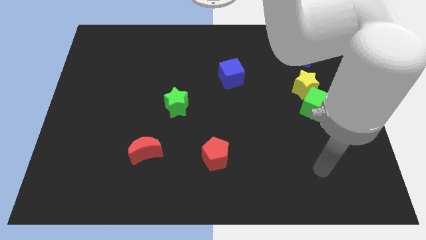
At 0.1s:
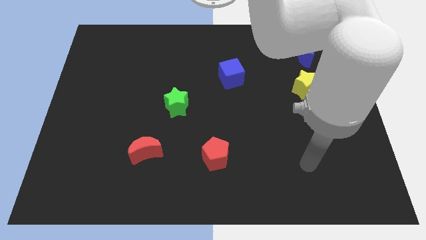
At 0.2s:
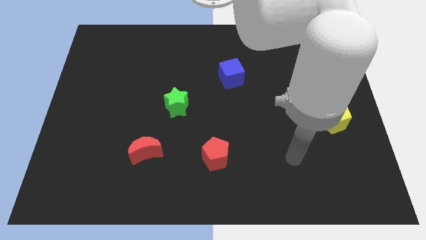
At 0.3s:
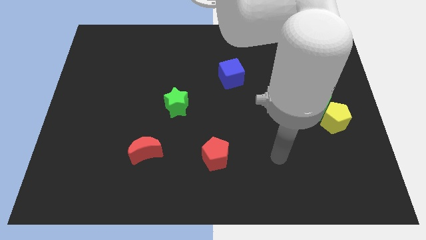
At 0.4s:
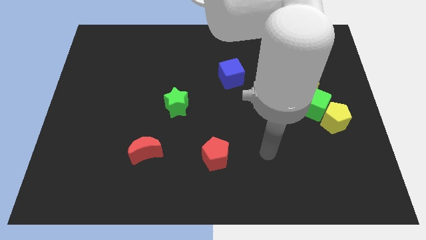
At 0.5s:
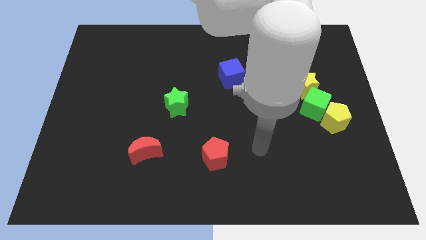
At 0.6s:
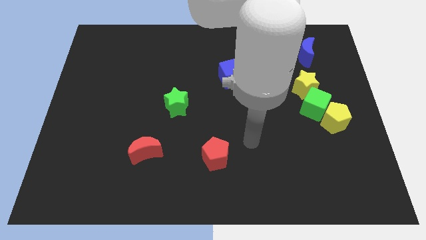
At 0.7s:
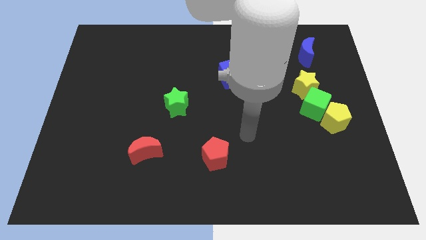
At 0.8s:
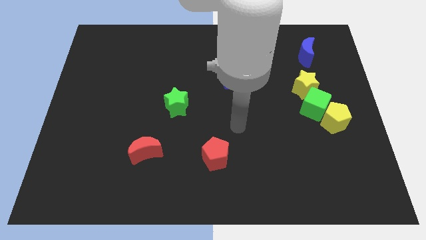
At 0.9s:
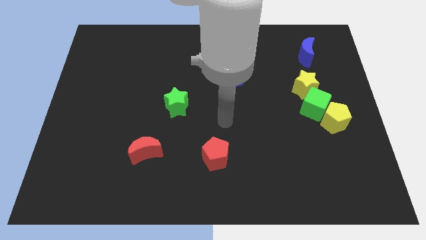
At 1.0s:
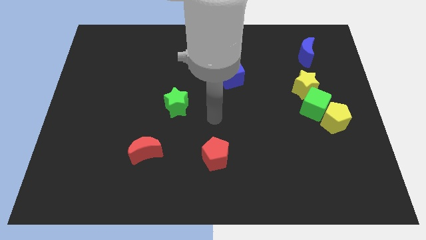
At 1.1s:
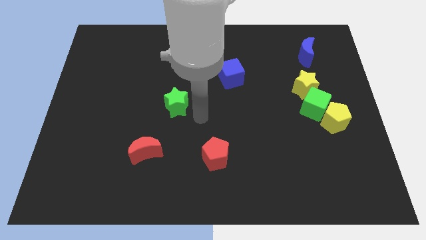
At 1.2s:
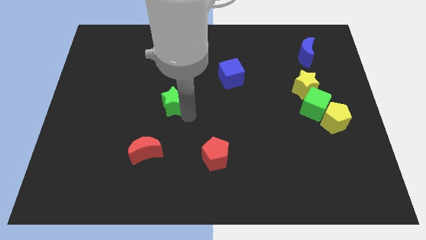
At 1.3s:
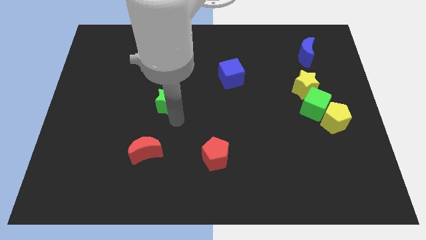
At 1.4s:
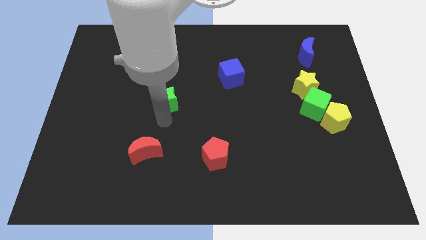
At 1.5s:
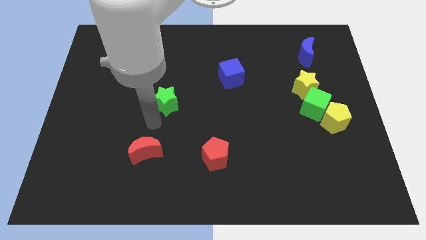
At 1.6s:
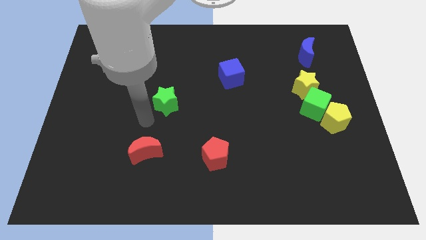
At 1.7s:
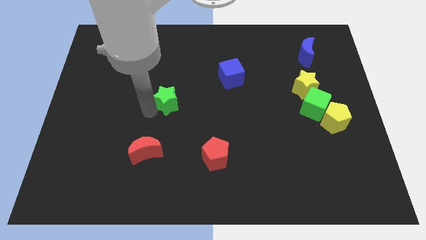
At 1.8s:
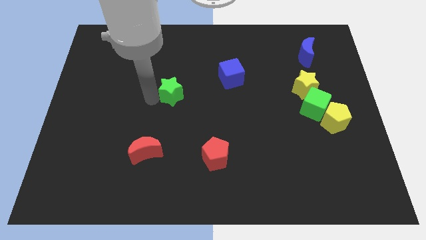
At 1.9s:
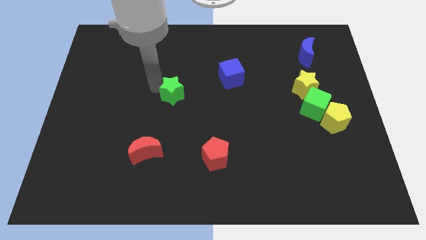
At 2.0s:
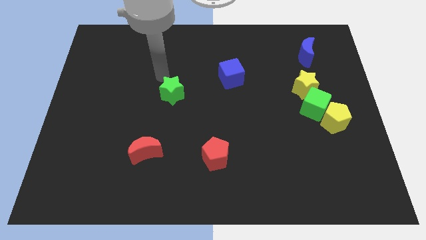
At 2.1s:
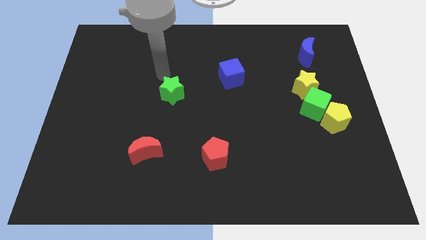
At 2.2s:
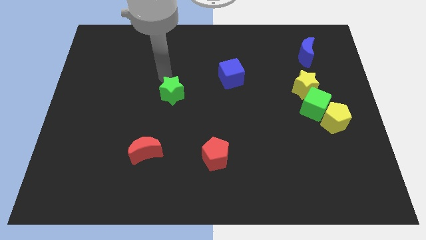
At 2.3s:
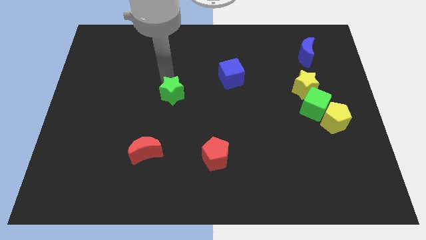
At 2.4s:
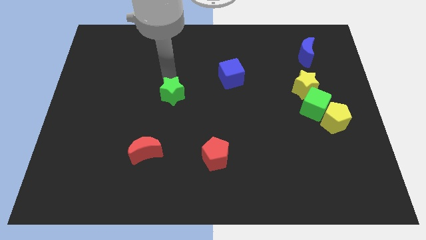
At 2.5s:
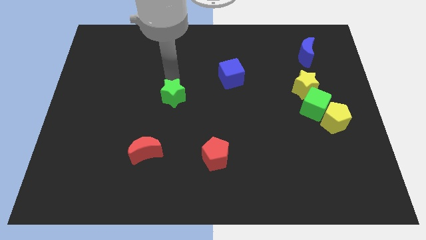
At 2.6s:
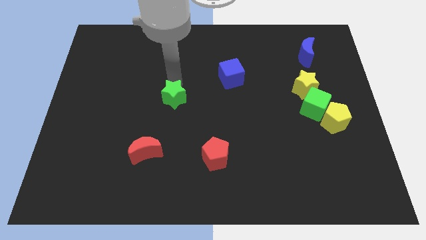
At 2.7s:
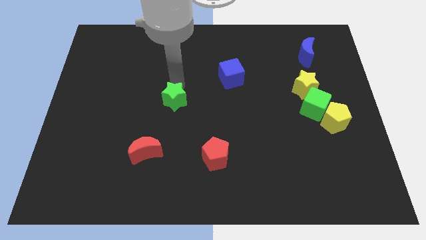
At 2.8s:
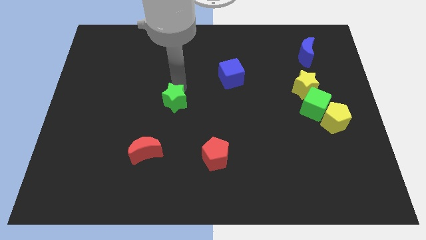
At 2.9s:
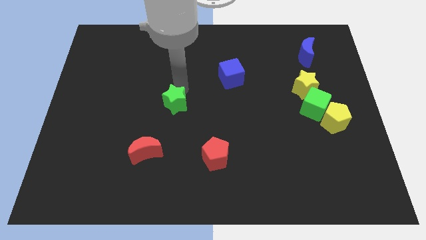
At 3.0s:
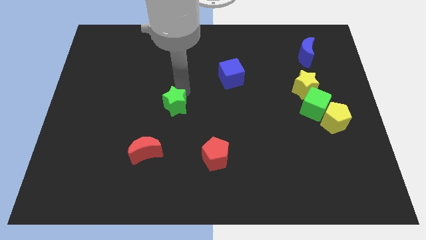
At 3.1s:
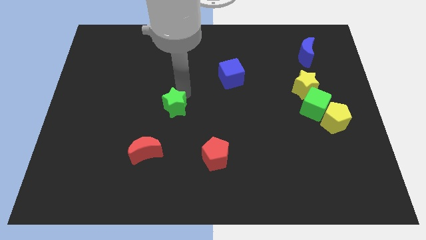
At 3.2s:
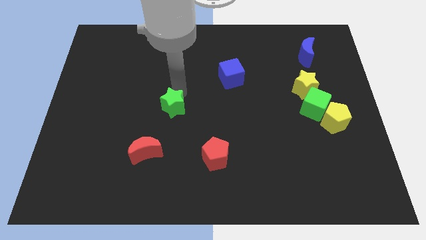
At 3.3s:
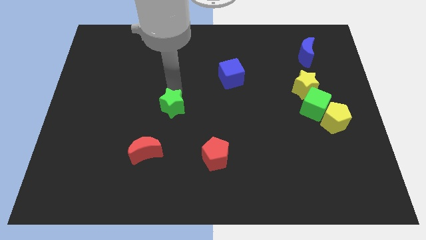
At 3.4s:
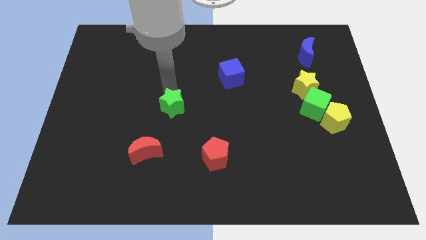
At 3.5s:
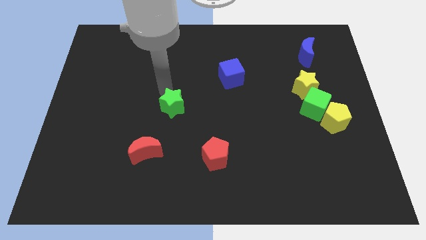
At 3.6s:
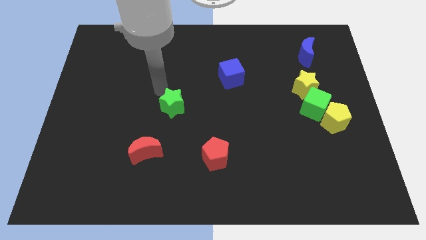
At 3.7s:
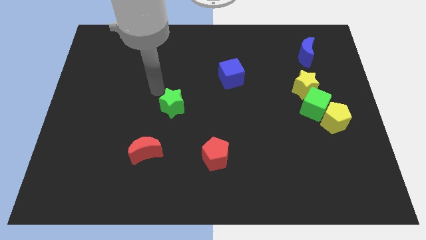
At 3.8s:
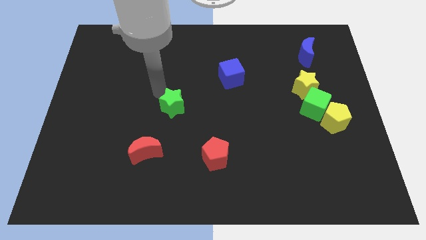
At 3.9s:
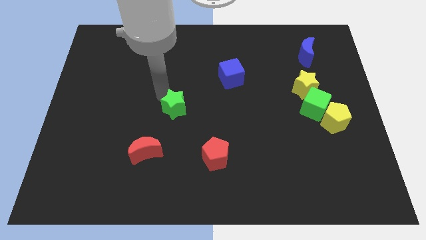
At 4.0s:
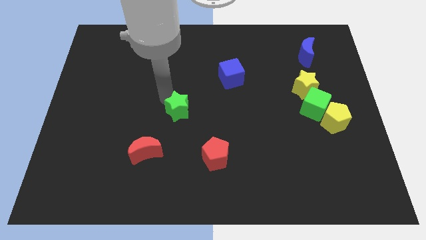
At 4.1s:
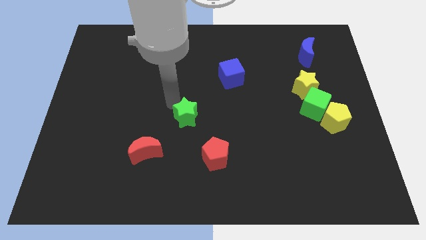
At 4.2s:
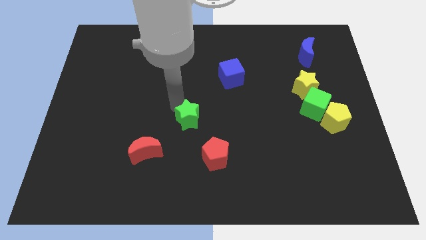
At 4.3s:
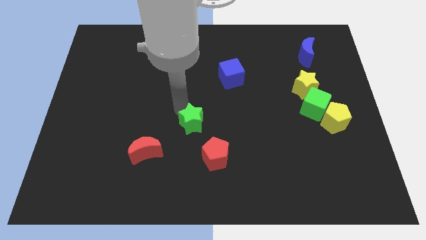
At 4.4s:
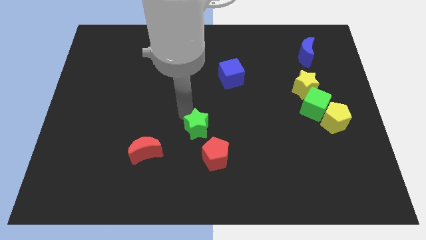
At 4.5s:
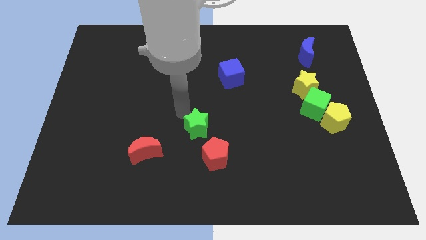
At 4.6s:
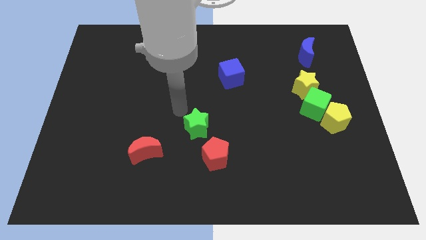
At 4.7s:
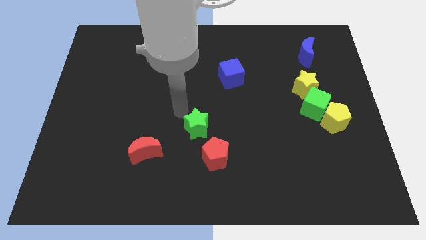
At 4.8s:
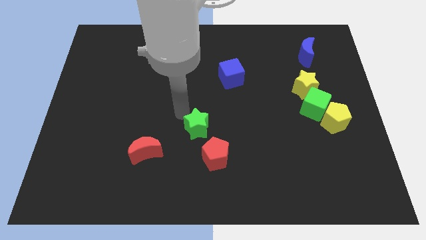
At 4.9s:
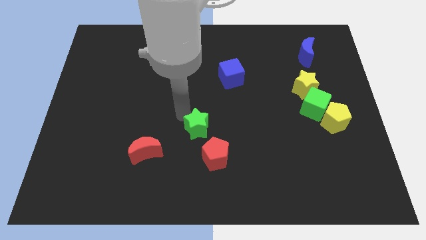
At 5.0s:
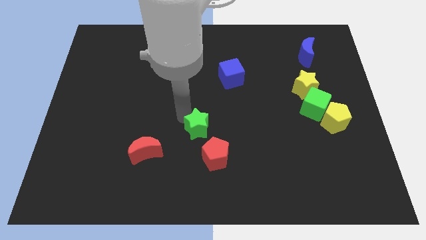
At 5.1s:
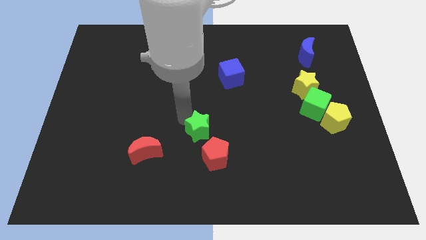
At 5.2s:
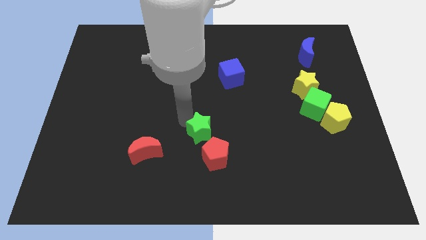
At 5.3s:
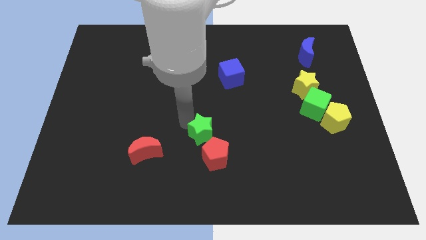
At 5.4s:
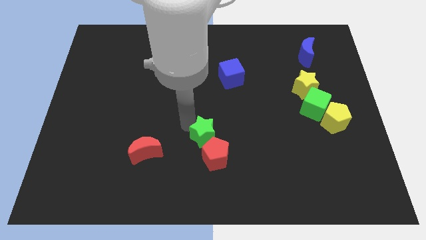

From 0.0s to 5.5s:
push the green star towards the red pentagon

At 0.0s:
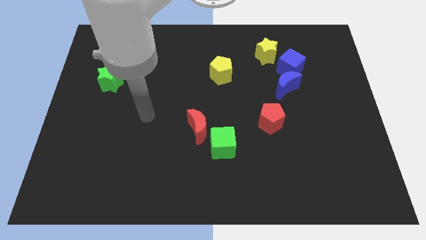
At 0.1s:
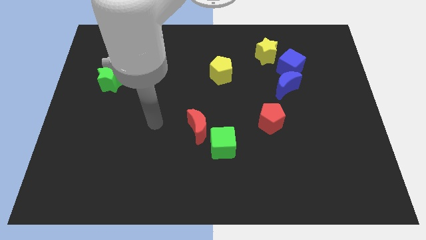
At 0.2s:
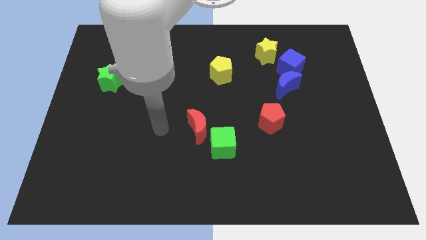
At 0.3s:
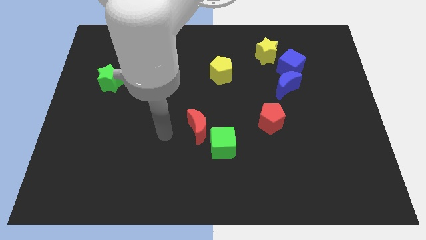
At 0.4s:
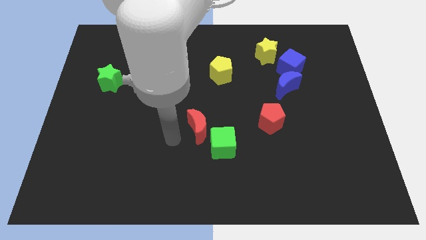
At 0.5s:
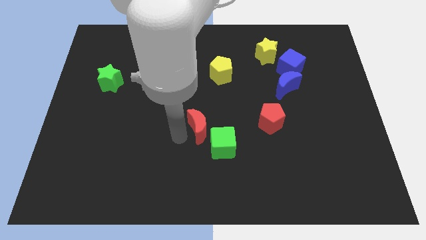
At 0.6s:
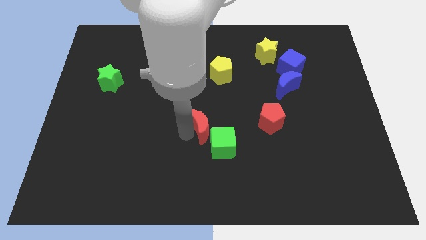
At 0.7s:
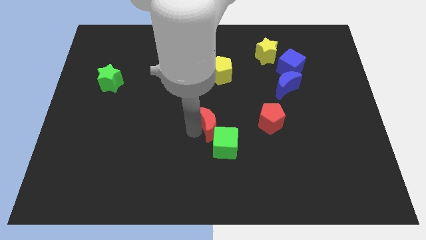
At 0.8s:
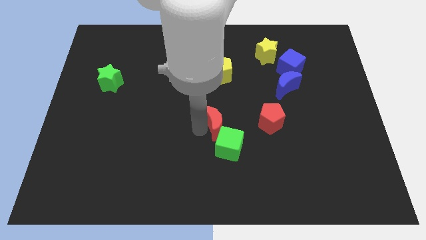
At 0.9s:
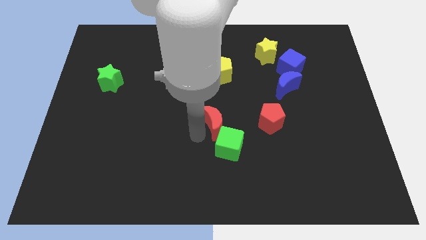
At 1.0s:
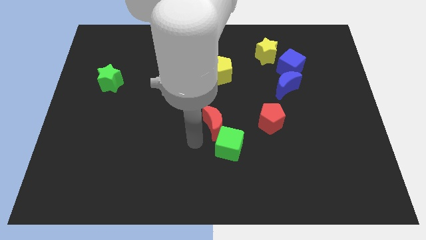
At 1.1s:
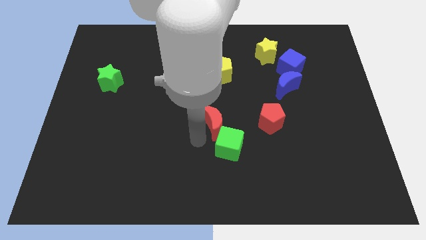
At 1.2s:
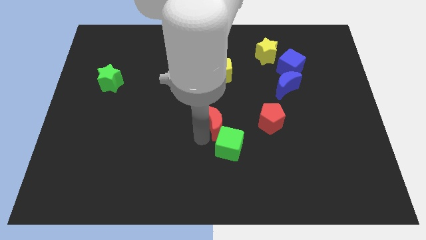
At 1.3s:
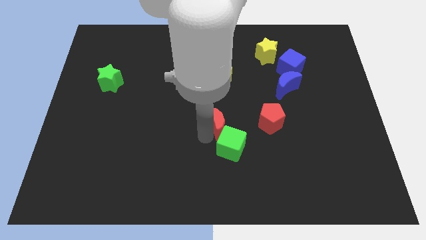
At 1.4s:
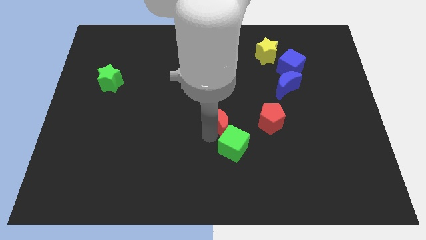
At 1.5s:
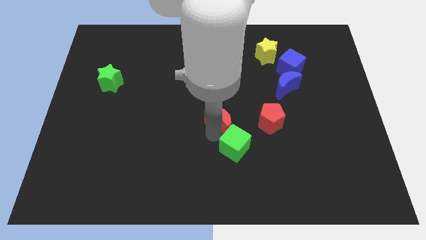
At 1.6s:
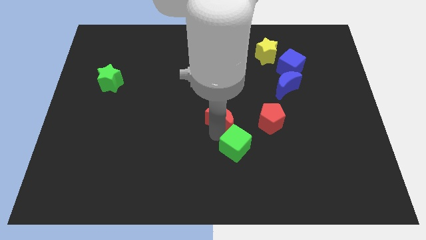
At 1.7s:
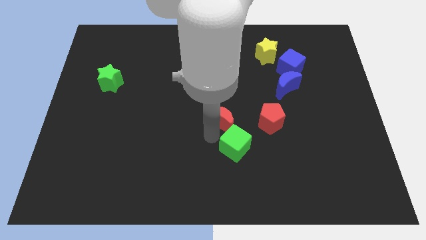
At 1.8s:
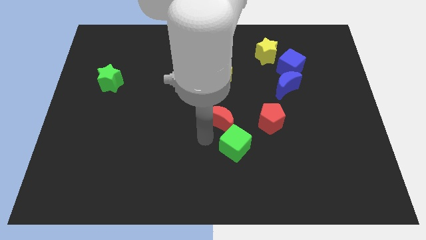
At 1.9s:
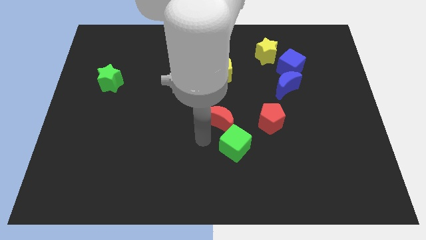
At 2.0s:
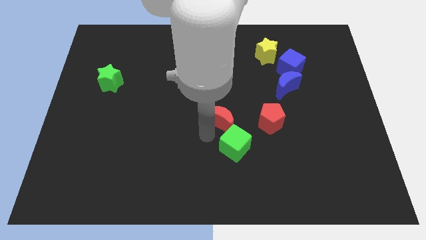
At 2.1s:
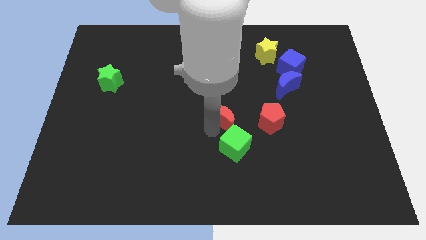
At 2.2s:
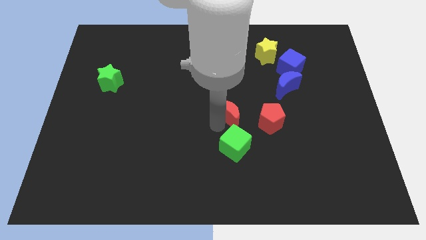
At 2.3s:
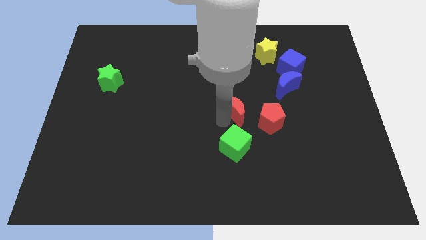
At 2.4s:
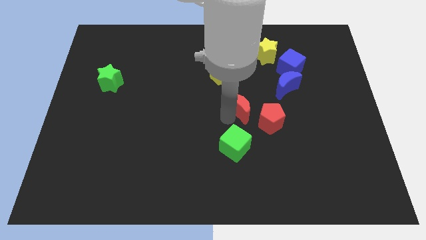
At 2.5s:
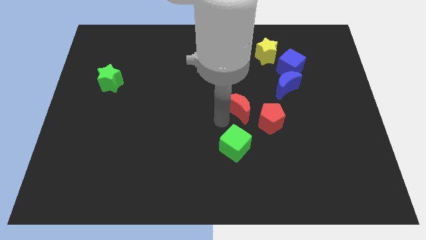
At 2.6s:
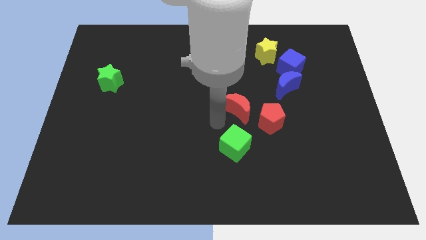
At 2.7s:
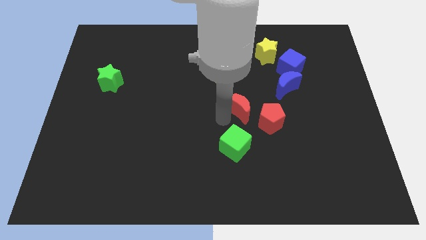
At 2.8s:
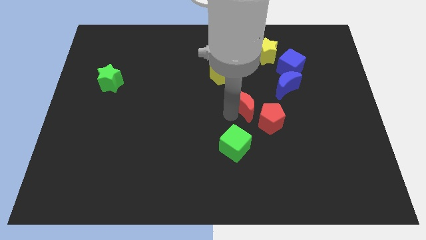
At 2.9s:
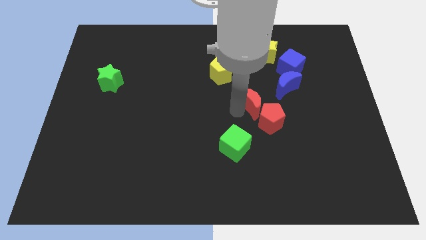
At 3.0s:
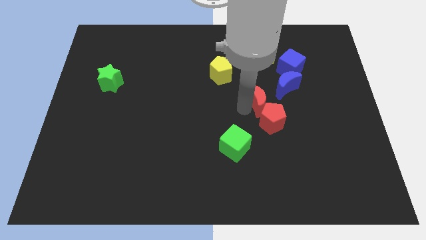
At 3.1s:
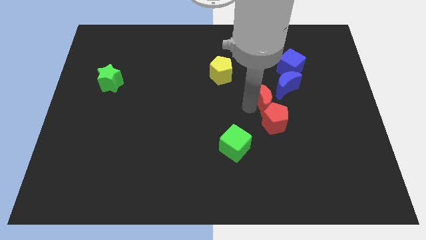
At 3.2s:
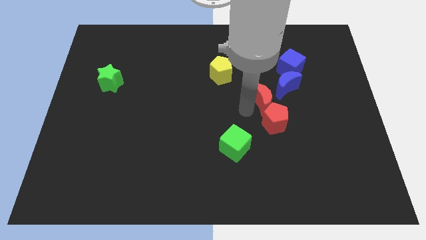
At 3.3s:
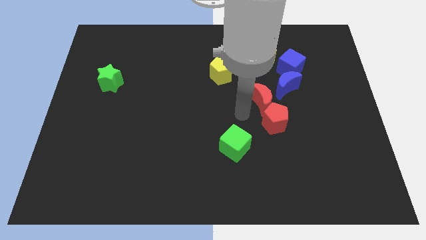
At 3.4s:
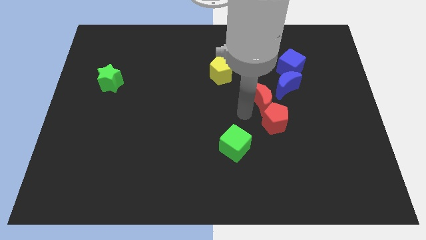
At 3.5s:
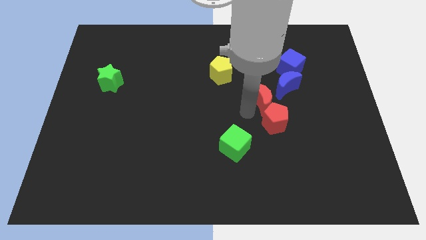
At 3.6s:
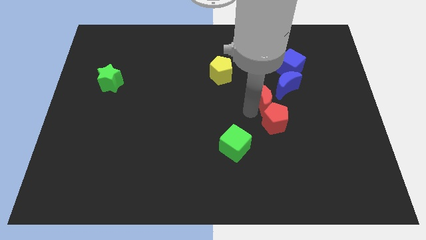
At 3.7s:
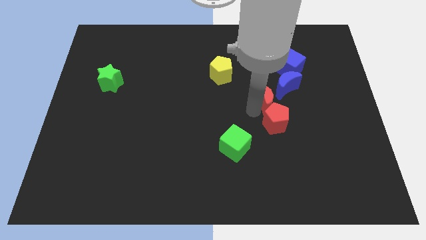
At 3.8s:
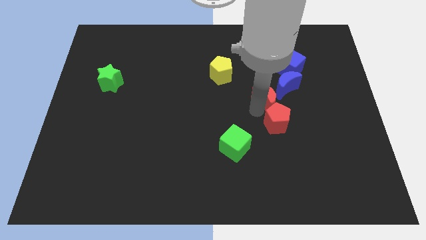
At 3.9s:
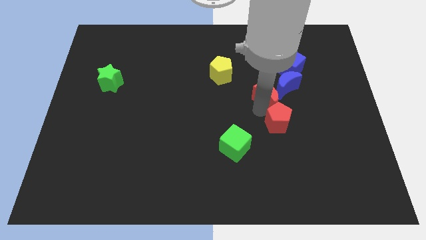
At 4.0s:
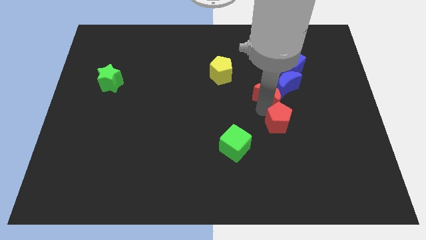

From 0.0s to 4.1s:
put the red moon to the blue moon
